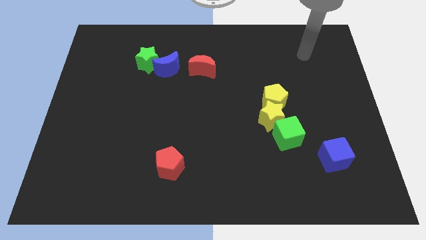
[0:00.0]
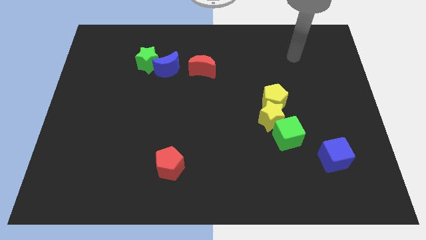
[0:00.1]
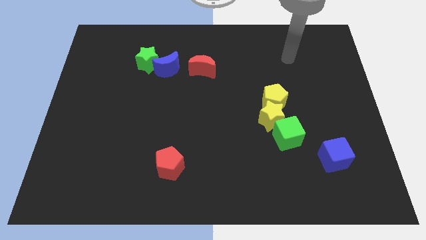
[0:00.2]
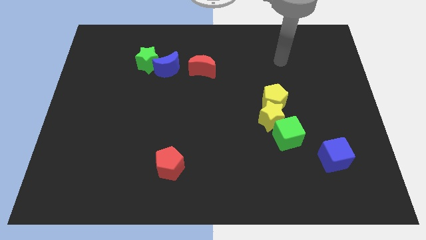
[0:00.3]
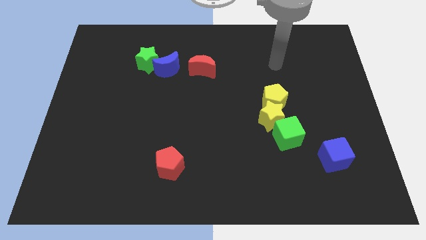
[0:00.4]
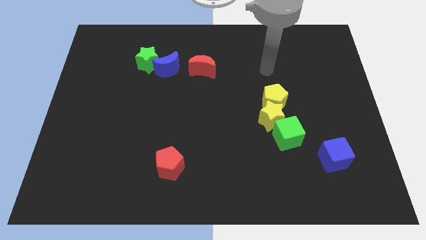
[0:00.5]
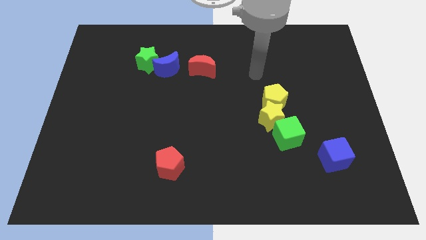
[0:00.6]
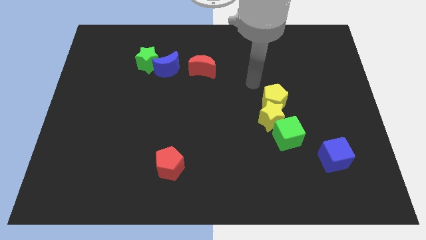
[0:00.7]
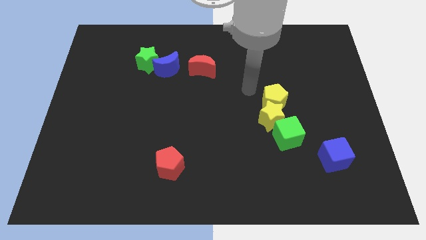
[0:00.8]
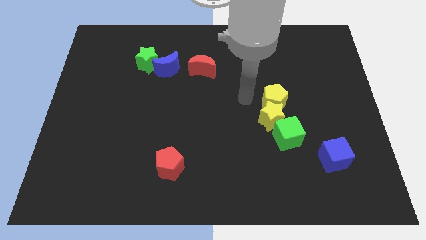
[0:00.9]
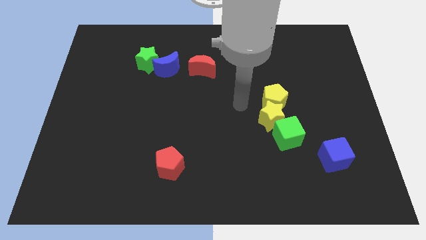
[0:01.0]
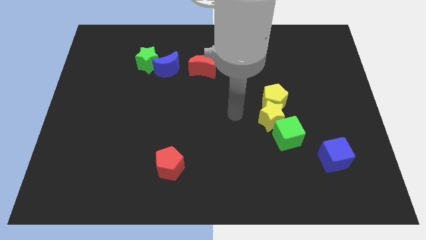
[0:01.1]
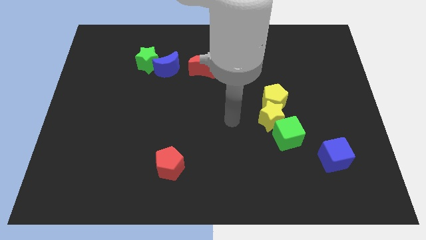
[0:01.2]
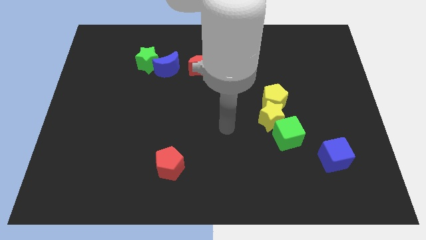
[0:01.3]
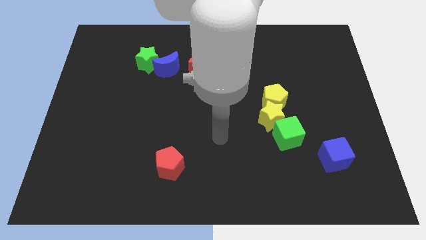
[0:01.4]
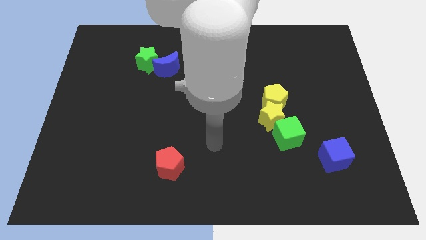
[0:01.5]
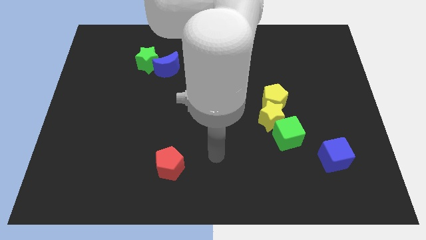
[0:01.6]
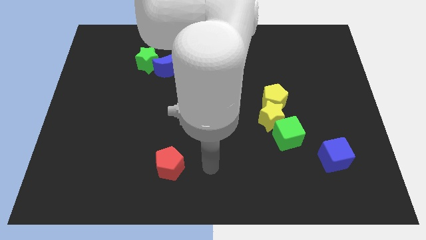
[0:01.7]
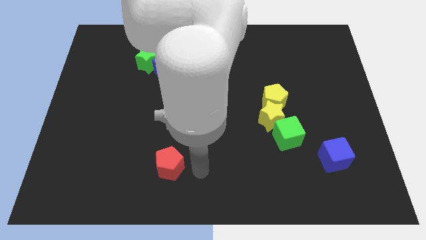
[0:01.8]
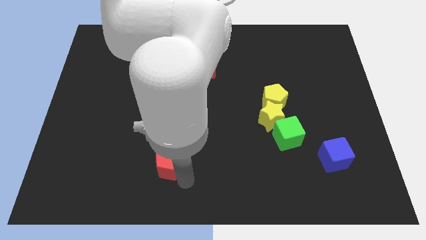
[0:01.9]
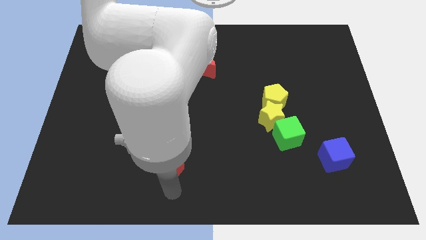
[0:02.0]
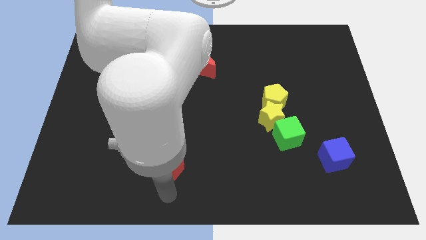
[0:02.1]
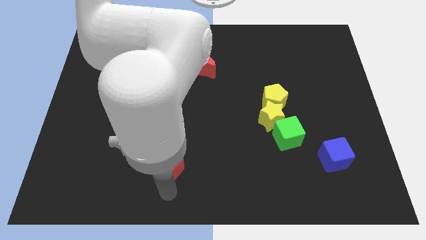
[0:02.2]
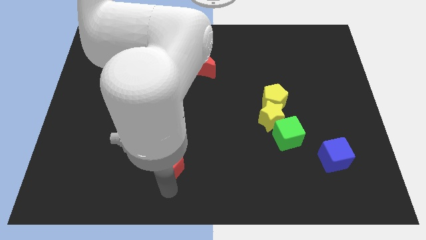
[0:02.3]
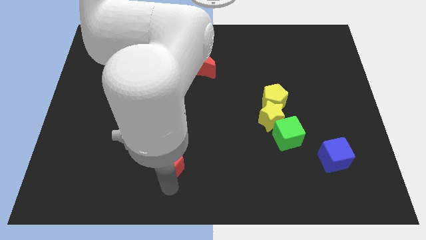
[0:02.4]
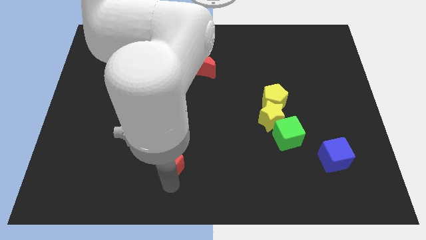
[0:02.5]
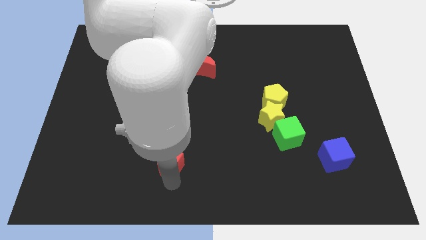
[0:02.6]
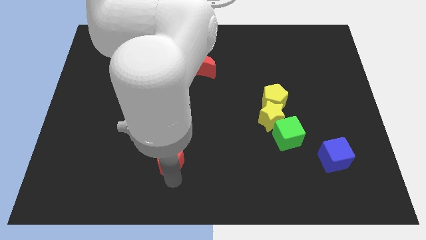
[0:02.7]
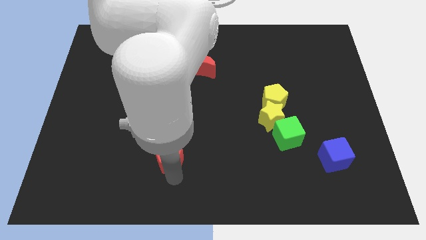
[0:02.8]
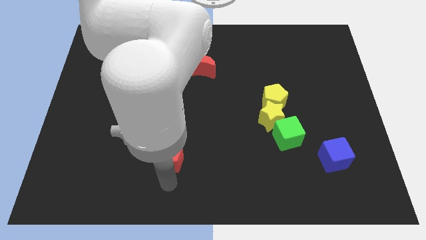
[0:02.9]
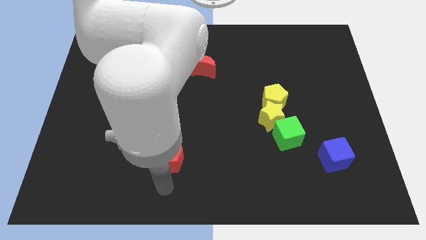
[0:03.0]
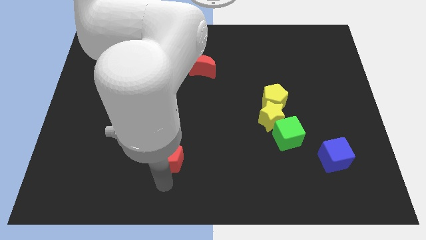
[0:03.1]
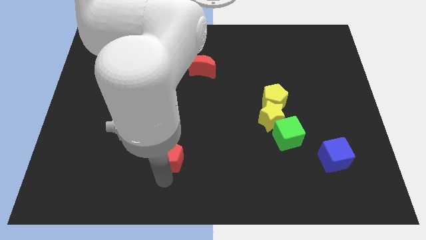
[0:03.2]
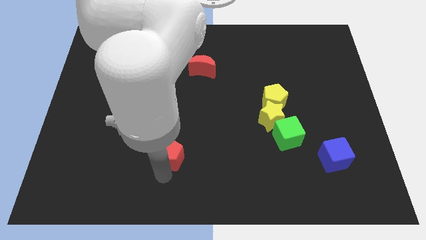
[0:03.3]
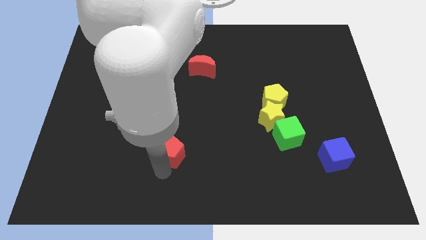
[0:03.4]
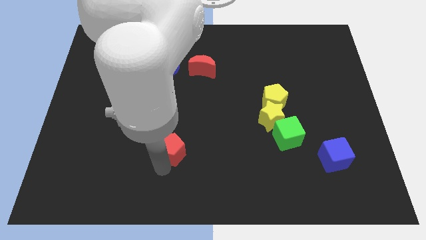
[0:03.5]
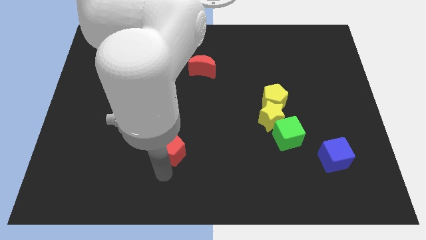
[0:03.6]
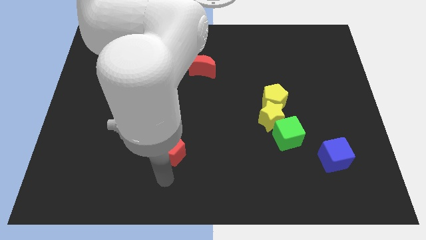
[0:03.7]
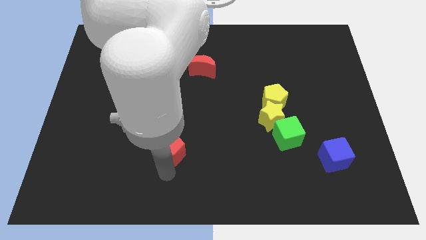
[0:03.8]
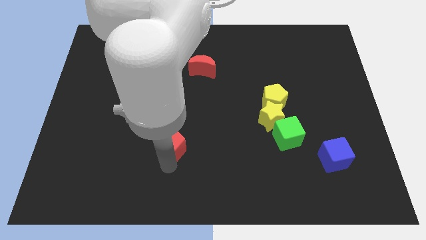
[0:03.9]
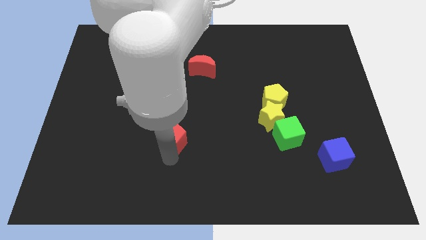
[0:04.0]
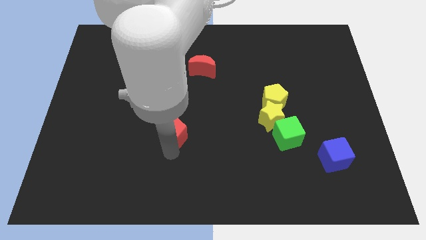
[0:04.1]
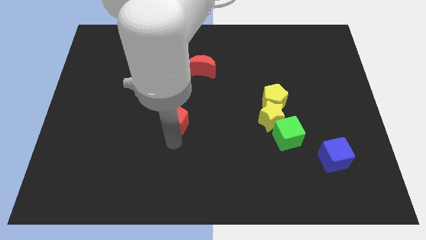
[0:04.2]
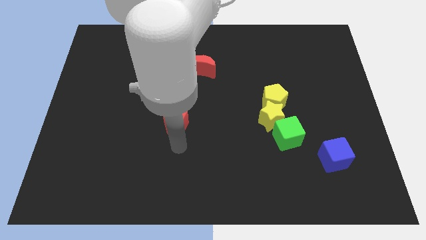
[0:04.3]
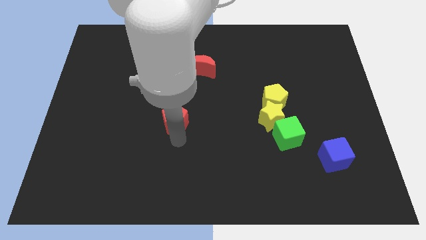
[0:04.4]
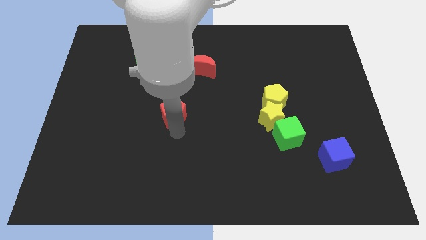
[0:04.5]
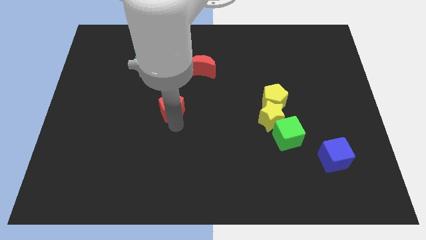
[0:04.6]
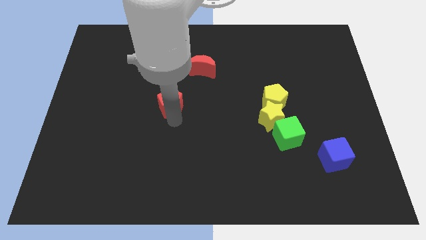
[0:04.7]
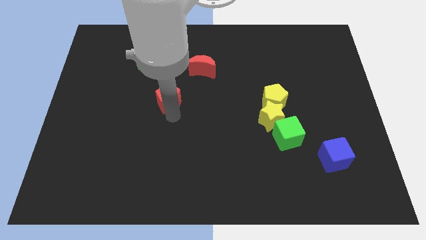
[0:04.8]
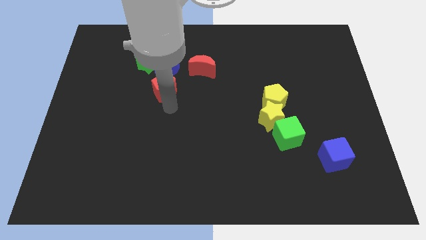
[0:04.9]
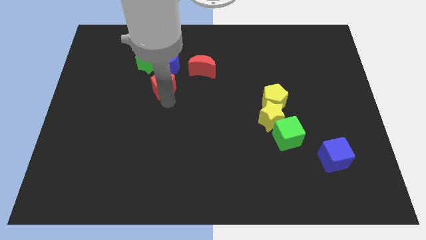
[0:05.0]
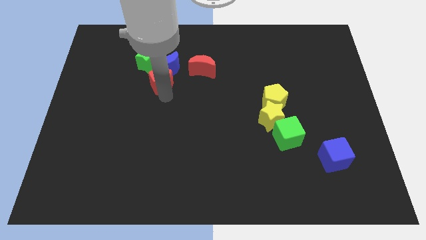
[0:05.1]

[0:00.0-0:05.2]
put the red pentagon close to the blue moon

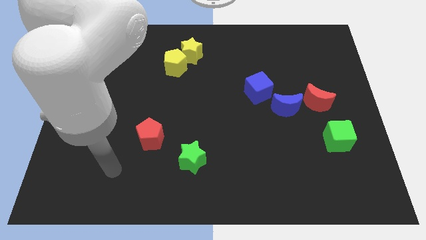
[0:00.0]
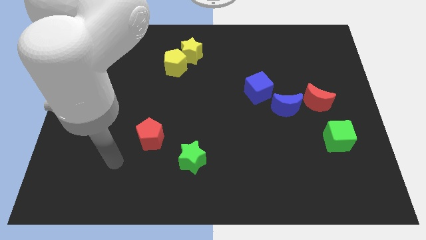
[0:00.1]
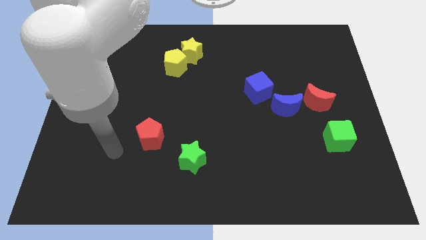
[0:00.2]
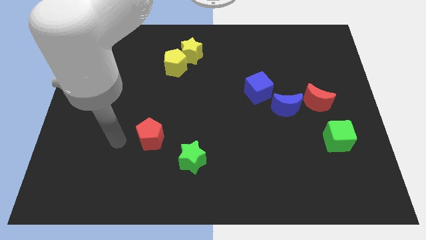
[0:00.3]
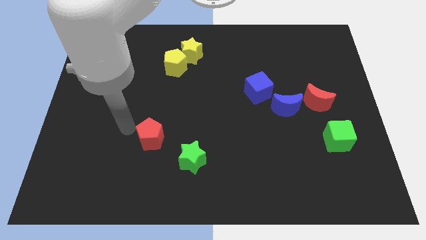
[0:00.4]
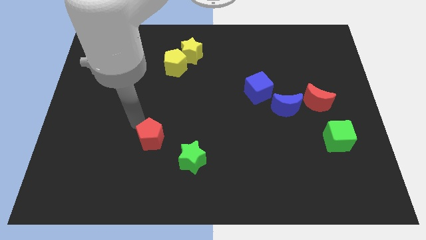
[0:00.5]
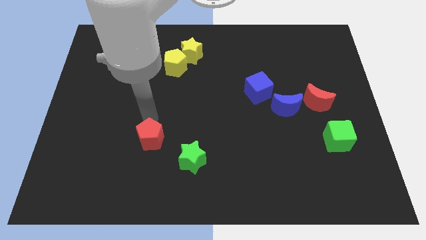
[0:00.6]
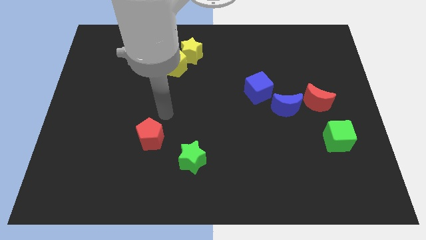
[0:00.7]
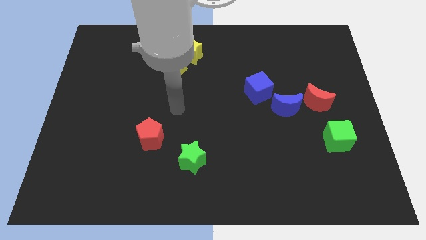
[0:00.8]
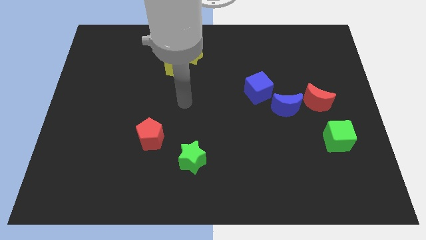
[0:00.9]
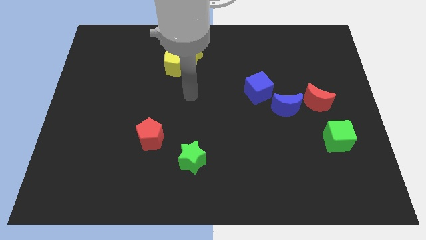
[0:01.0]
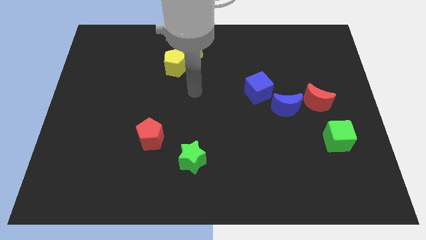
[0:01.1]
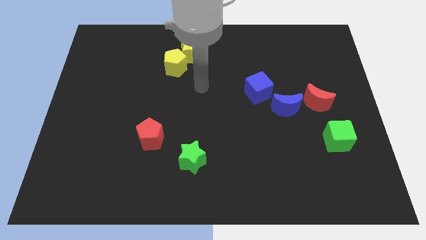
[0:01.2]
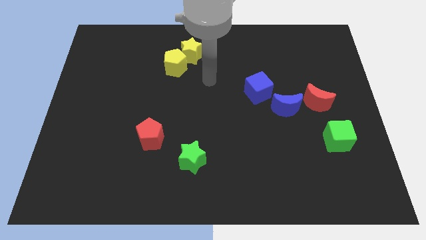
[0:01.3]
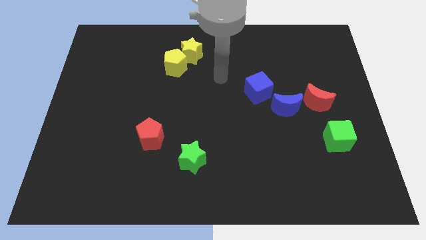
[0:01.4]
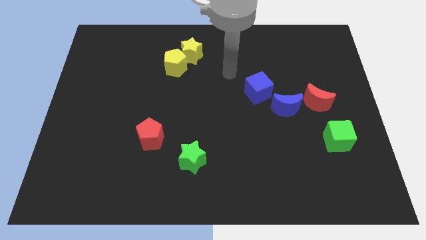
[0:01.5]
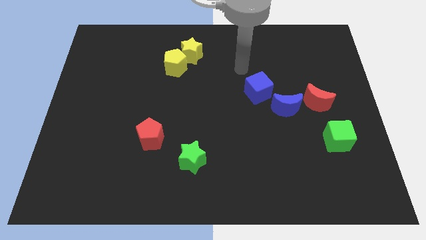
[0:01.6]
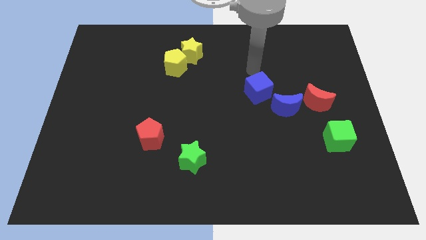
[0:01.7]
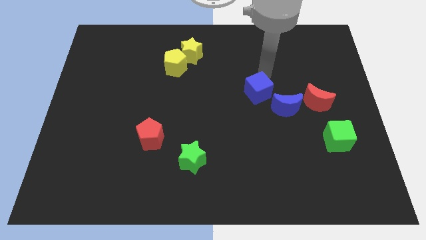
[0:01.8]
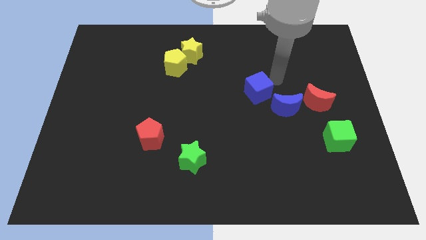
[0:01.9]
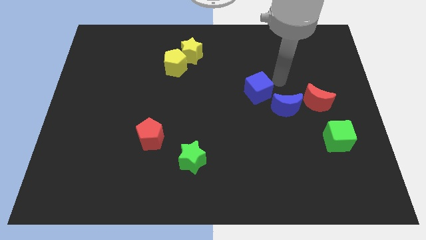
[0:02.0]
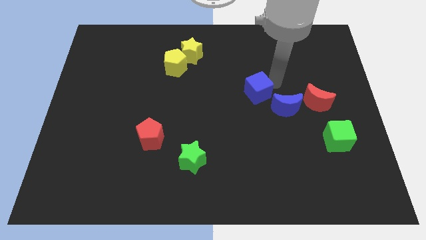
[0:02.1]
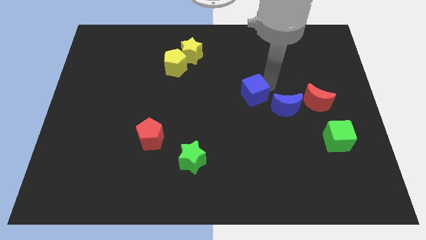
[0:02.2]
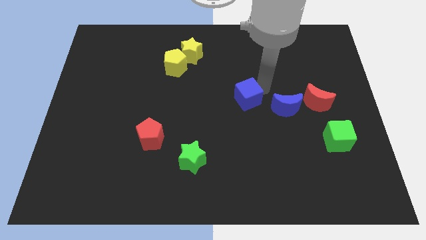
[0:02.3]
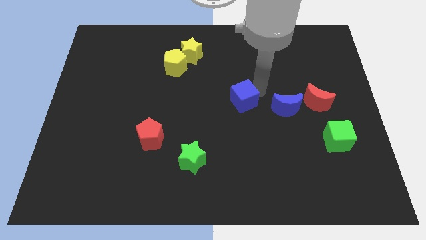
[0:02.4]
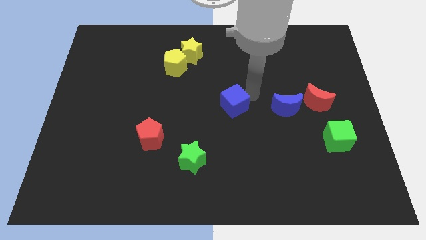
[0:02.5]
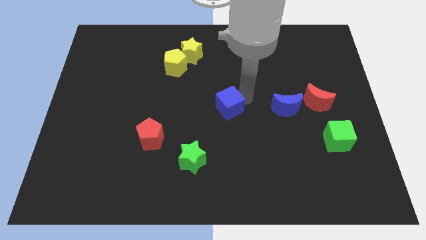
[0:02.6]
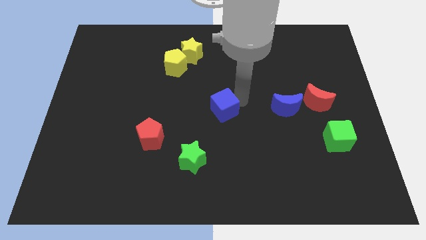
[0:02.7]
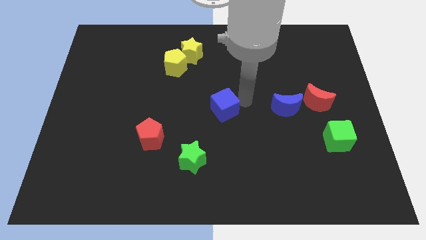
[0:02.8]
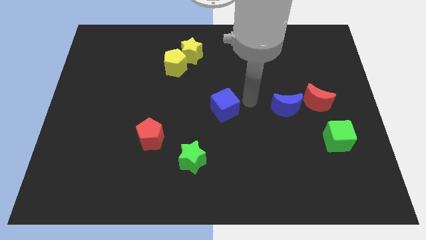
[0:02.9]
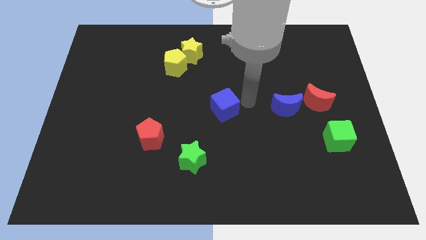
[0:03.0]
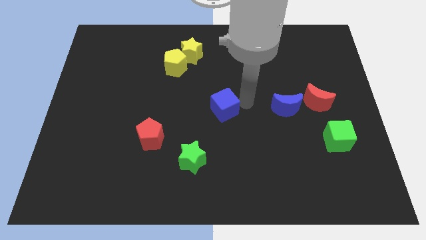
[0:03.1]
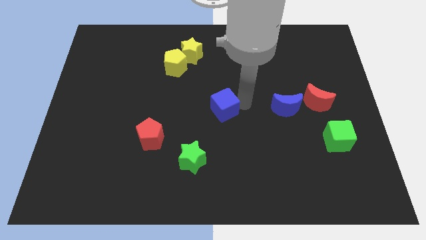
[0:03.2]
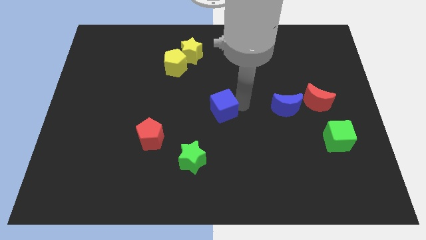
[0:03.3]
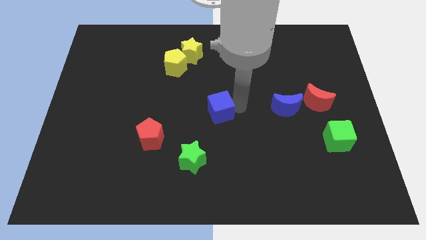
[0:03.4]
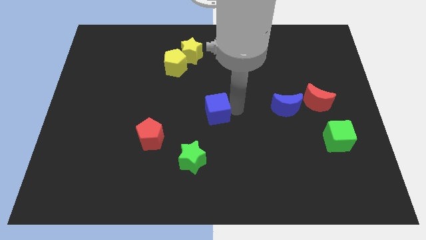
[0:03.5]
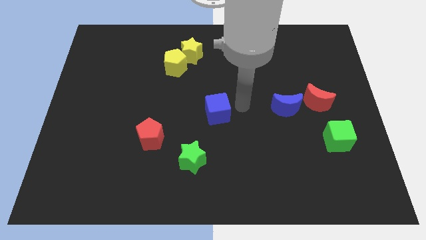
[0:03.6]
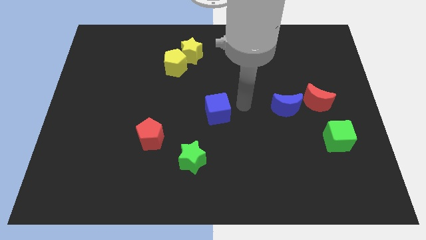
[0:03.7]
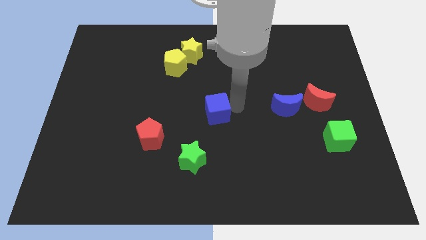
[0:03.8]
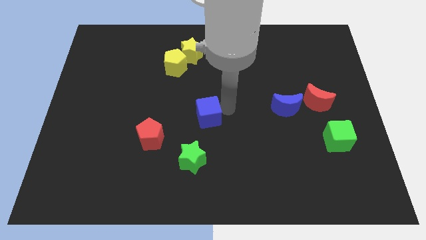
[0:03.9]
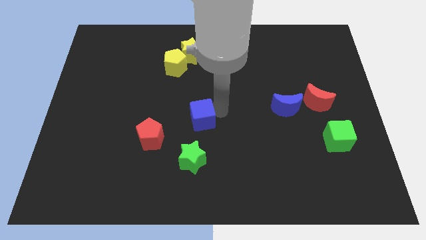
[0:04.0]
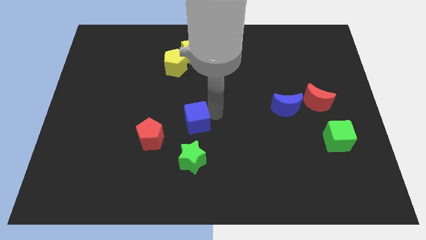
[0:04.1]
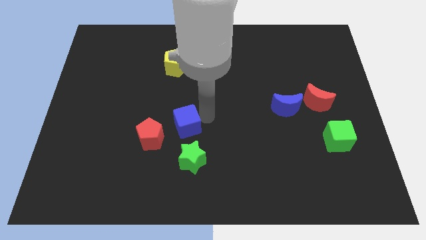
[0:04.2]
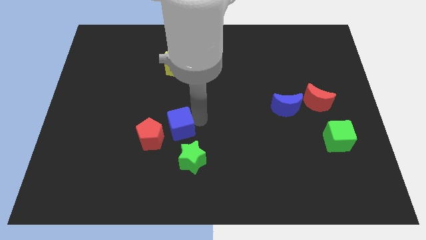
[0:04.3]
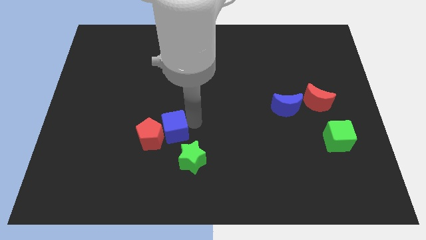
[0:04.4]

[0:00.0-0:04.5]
slide the blue cube to the red pentagon
